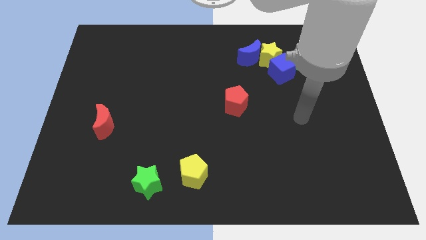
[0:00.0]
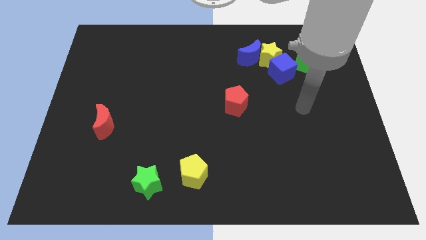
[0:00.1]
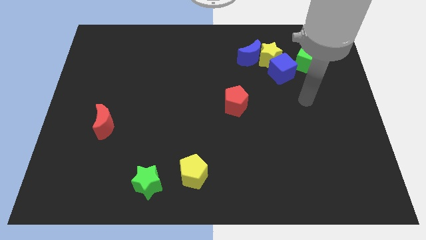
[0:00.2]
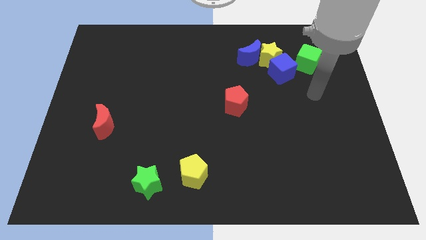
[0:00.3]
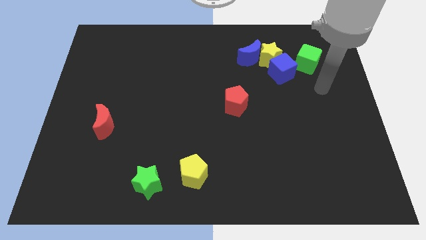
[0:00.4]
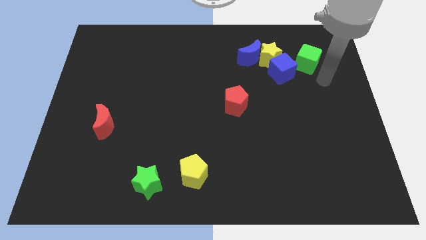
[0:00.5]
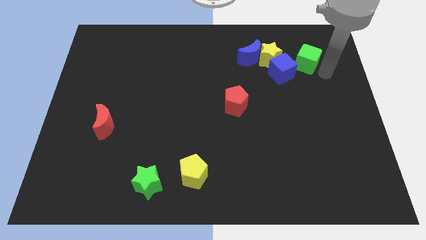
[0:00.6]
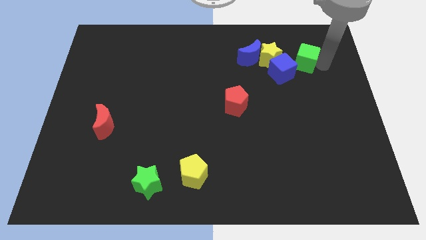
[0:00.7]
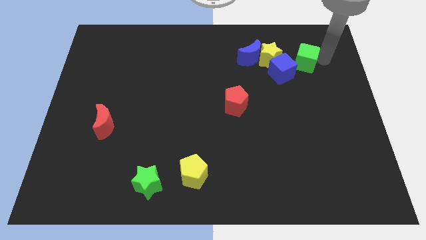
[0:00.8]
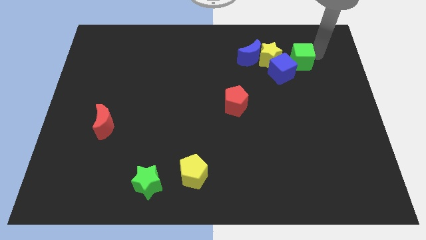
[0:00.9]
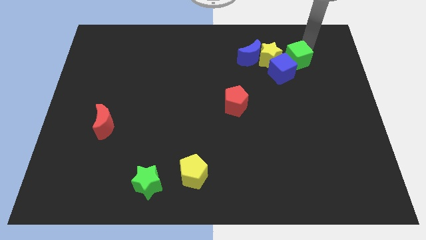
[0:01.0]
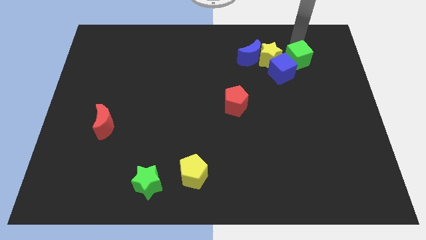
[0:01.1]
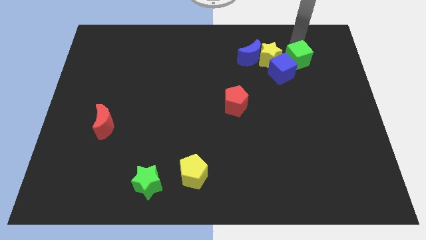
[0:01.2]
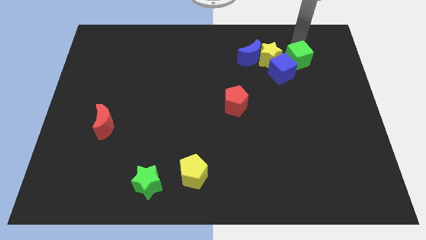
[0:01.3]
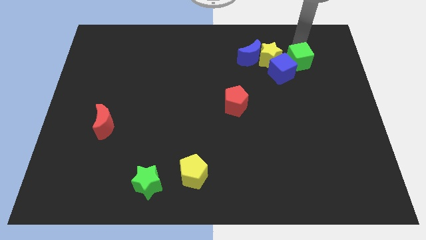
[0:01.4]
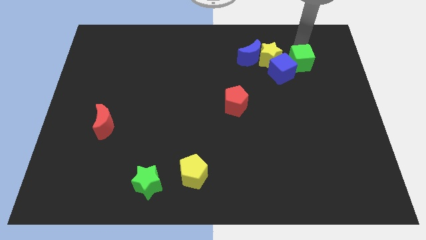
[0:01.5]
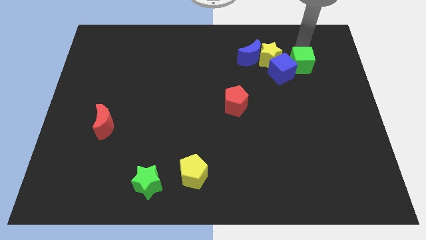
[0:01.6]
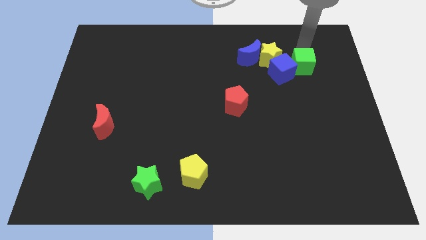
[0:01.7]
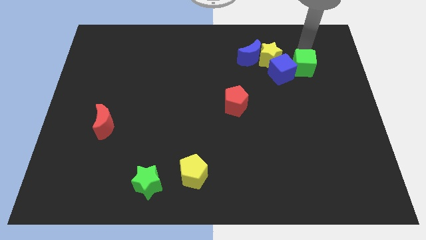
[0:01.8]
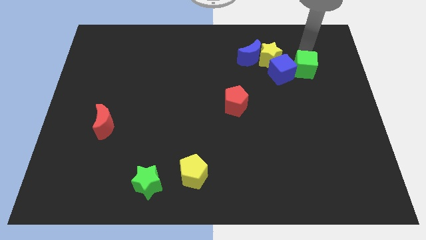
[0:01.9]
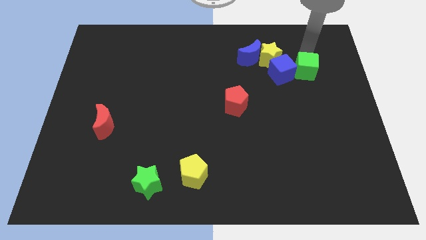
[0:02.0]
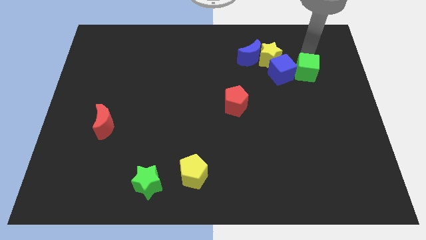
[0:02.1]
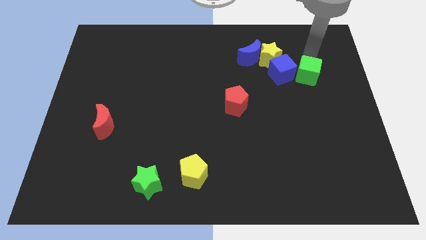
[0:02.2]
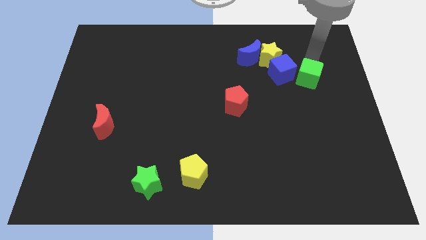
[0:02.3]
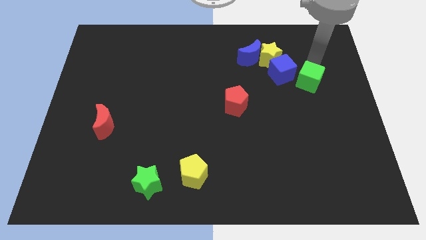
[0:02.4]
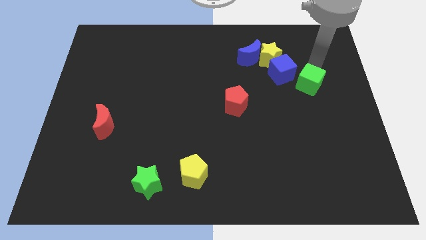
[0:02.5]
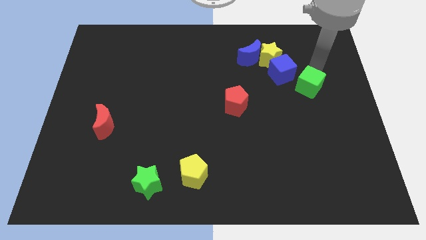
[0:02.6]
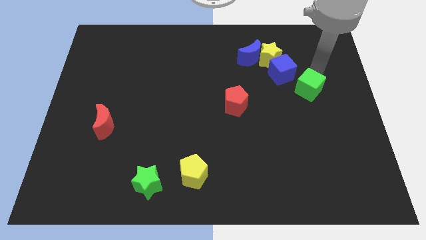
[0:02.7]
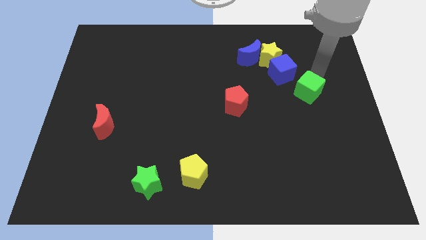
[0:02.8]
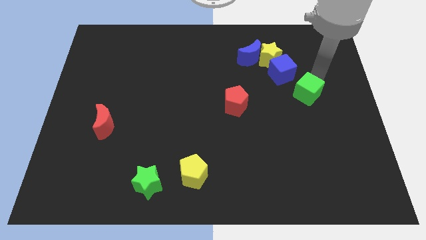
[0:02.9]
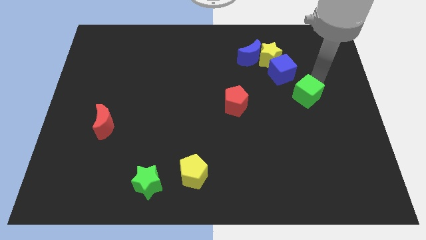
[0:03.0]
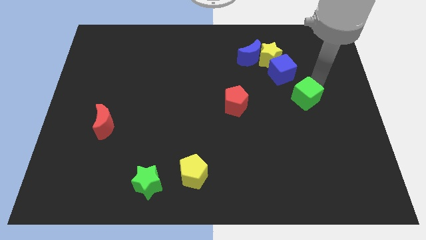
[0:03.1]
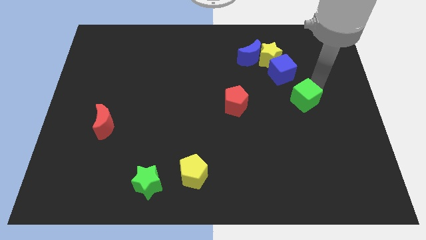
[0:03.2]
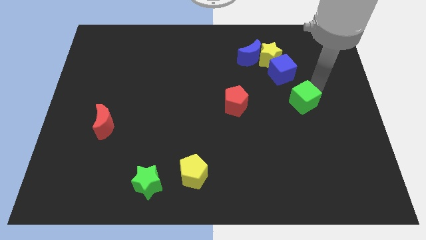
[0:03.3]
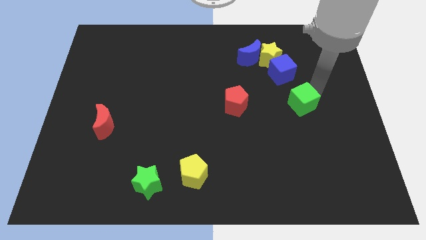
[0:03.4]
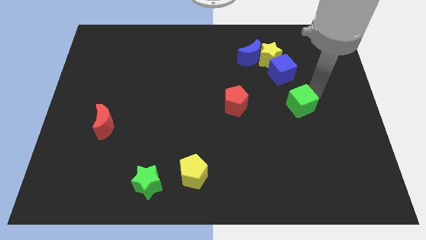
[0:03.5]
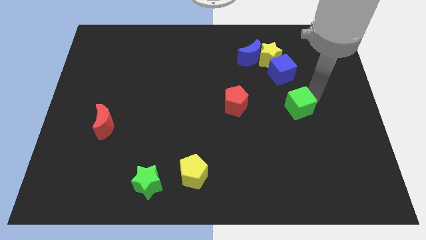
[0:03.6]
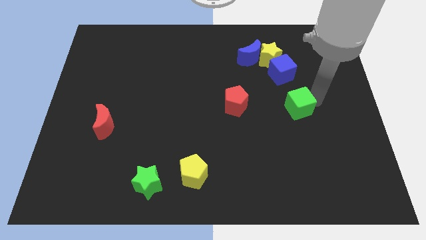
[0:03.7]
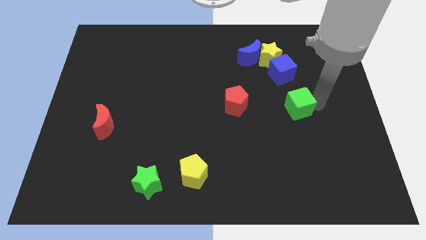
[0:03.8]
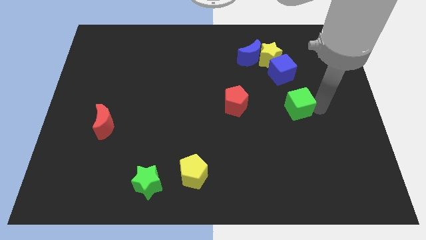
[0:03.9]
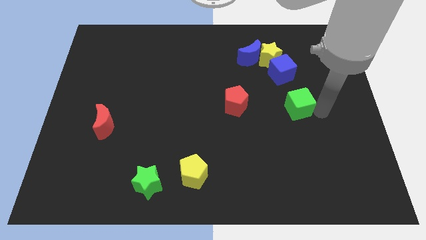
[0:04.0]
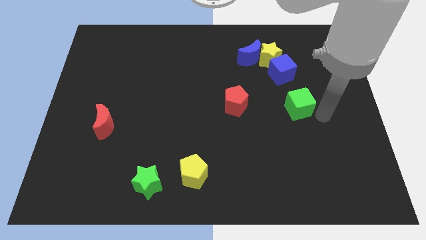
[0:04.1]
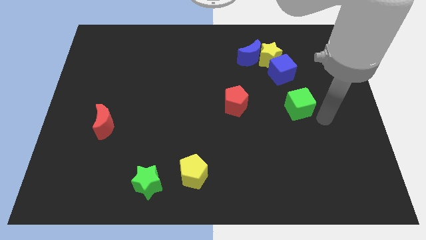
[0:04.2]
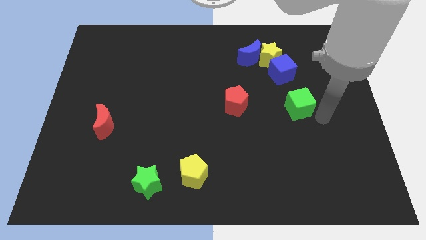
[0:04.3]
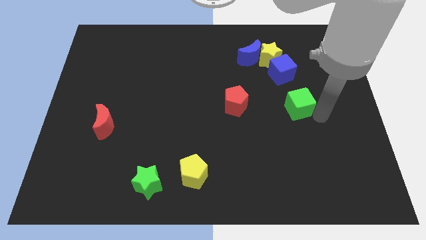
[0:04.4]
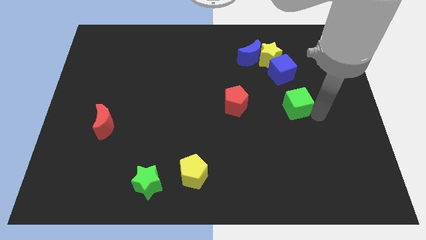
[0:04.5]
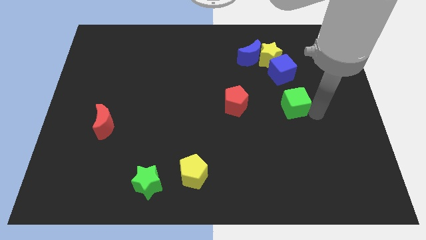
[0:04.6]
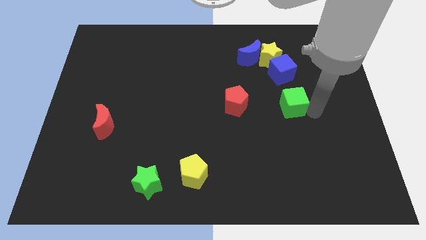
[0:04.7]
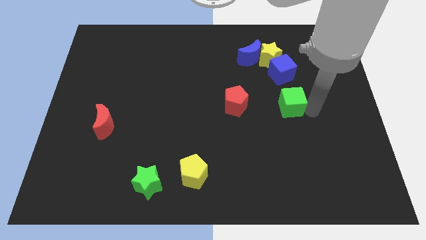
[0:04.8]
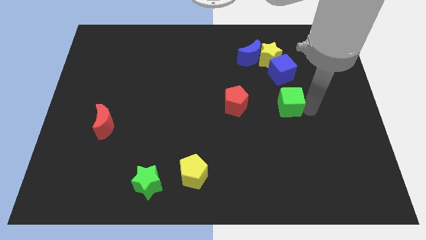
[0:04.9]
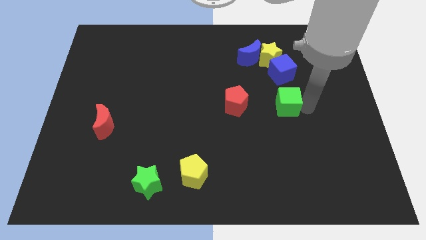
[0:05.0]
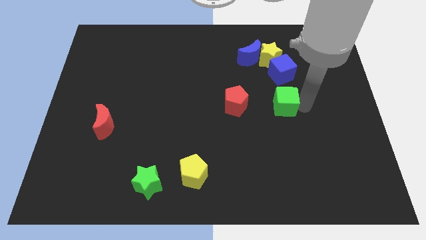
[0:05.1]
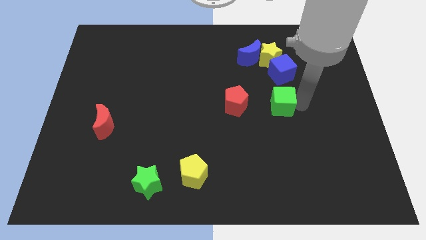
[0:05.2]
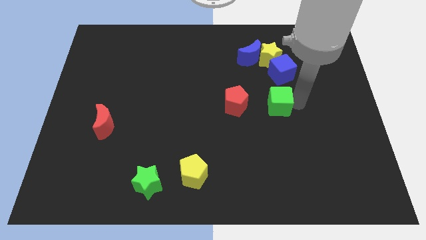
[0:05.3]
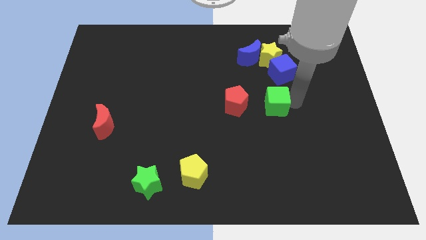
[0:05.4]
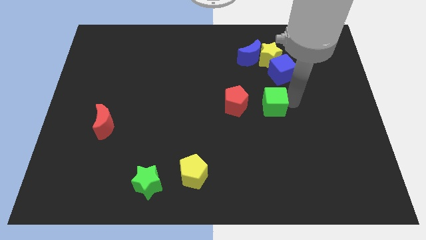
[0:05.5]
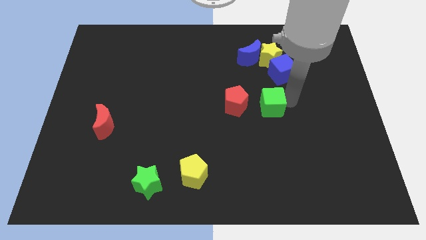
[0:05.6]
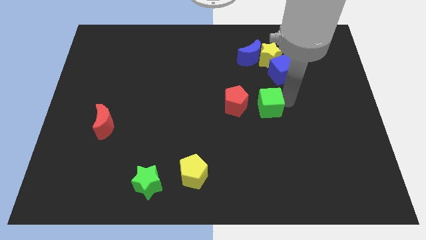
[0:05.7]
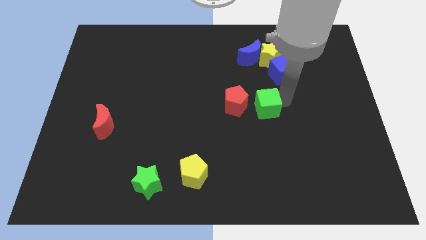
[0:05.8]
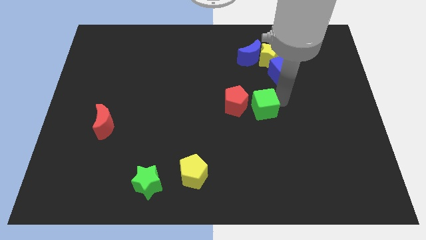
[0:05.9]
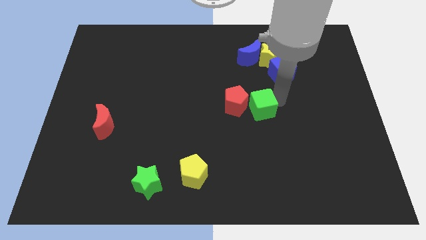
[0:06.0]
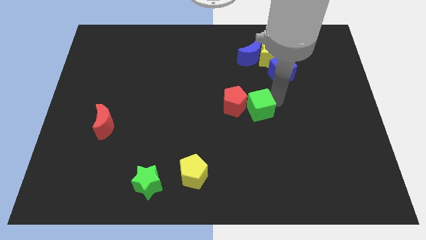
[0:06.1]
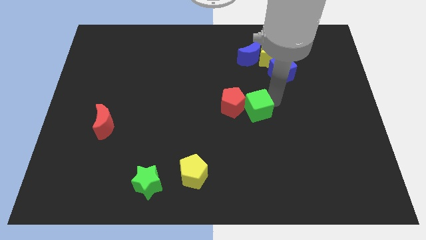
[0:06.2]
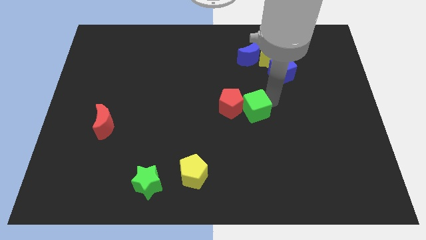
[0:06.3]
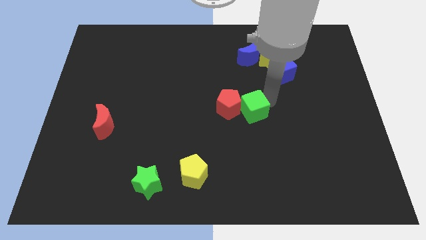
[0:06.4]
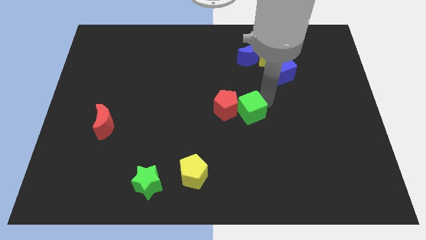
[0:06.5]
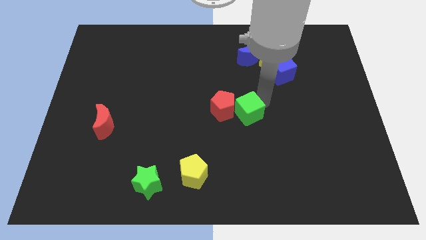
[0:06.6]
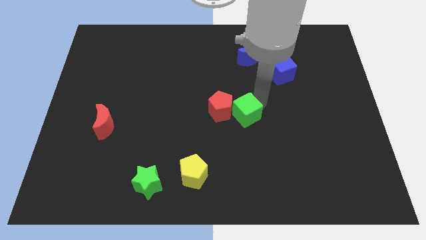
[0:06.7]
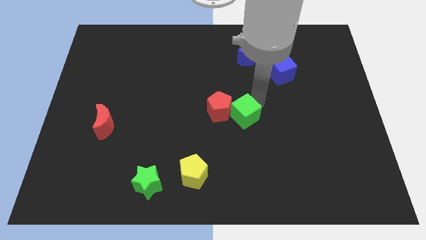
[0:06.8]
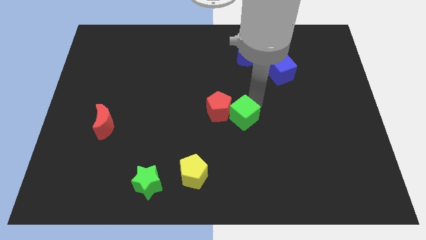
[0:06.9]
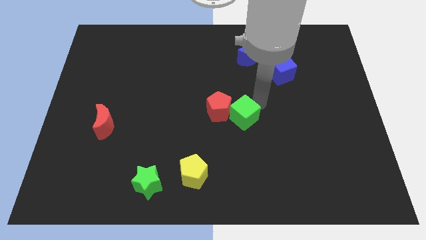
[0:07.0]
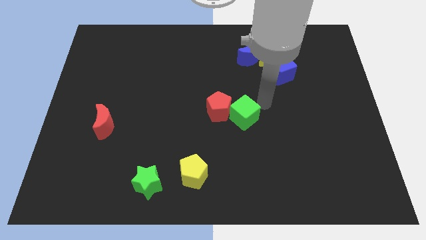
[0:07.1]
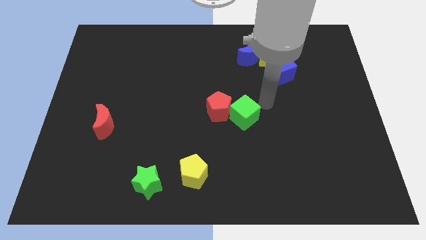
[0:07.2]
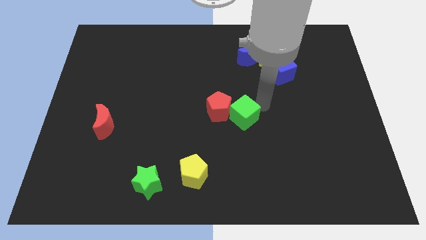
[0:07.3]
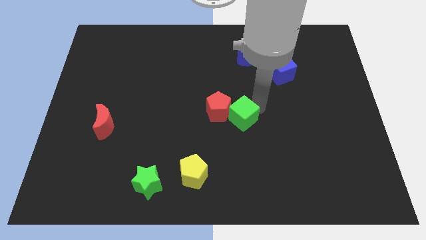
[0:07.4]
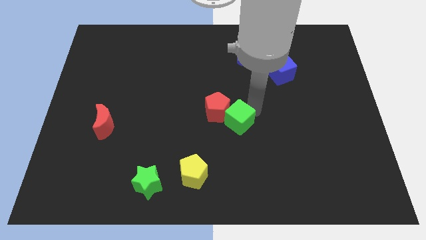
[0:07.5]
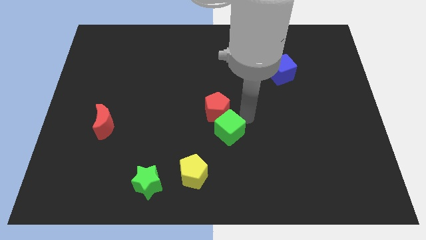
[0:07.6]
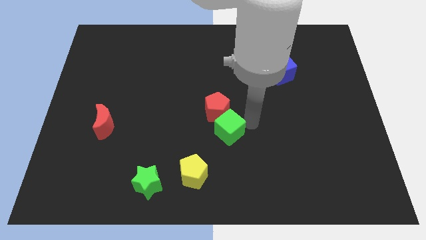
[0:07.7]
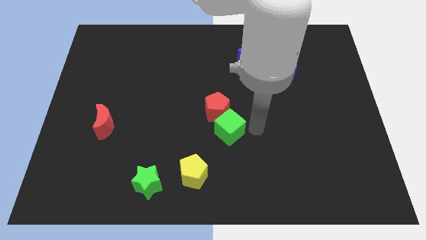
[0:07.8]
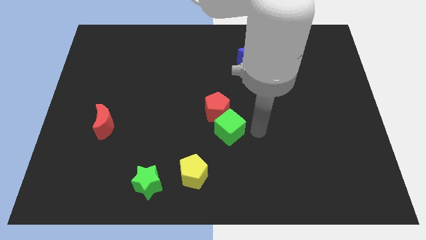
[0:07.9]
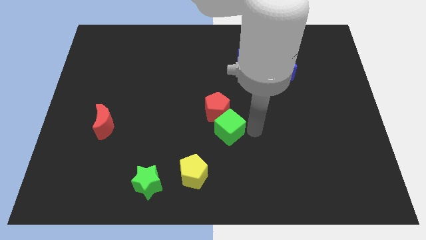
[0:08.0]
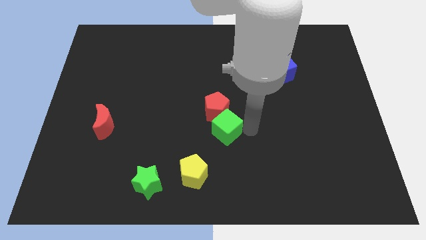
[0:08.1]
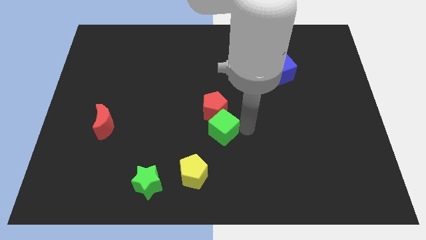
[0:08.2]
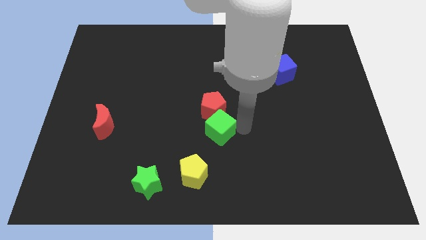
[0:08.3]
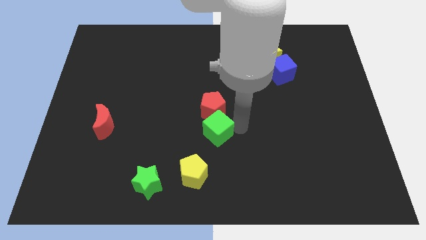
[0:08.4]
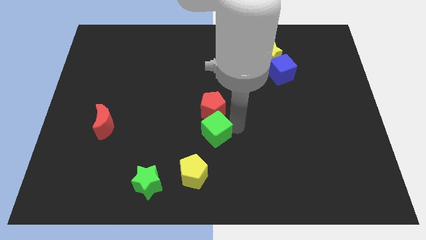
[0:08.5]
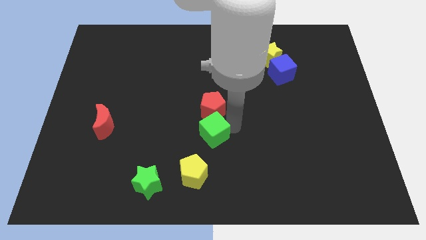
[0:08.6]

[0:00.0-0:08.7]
push the green cube to the bottom left side of the red pentagon
